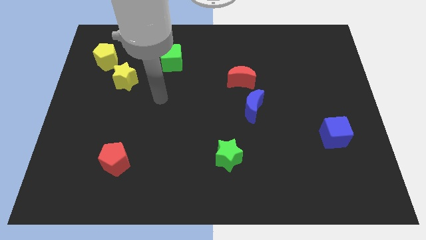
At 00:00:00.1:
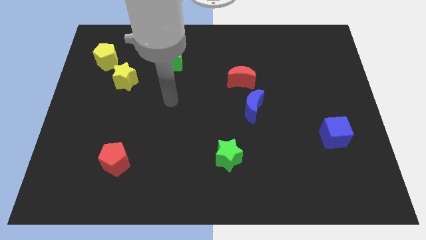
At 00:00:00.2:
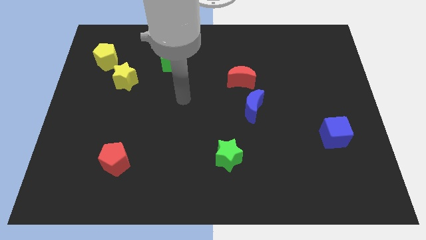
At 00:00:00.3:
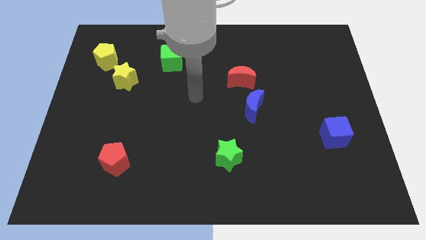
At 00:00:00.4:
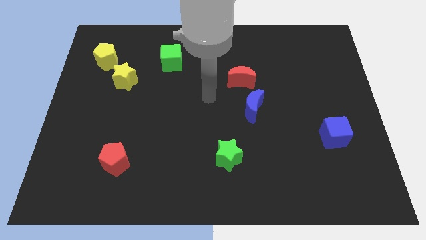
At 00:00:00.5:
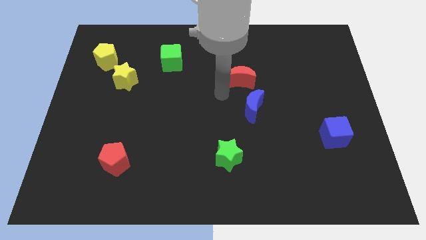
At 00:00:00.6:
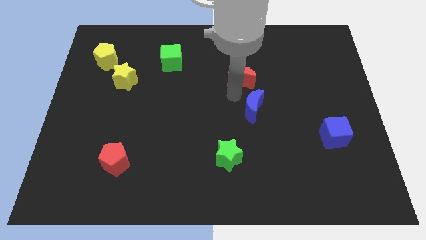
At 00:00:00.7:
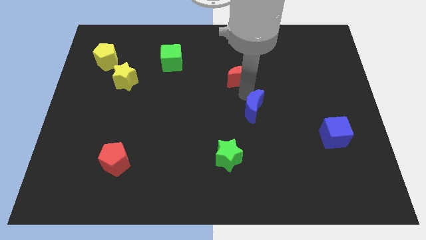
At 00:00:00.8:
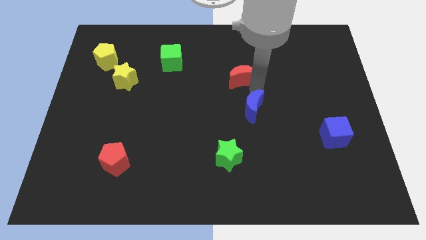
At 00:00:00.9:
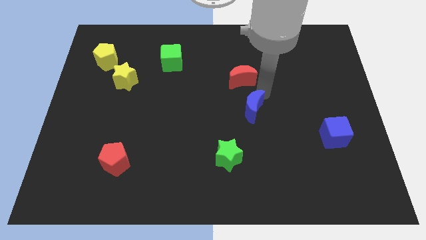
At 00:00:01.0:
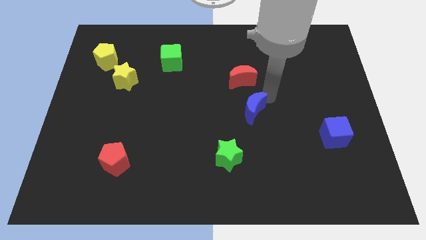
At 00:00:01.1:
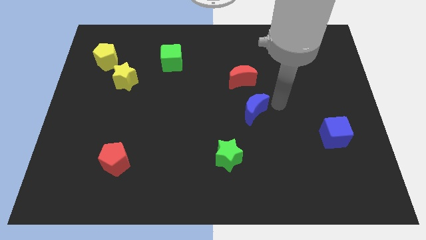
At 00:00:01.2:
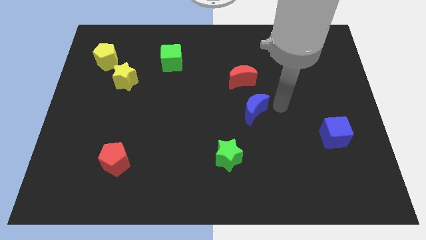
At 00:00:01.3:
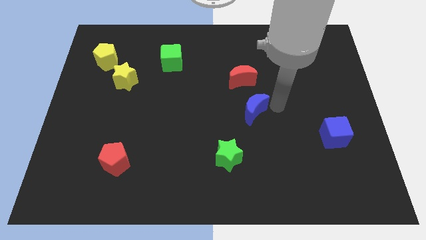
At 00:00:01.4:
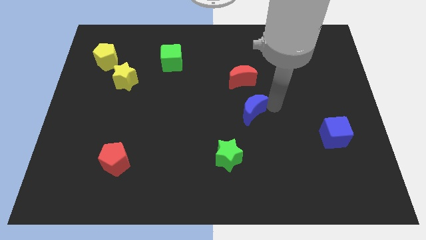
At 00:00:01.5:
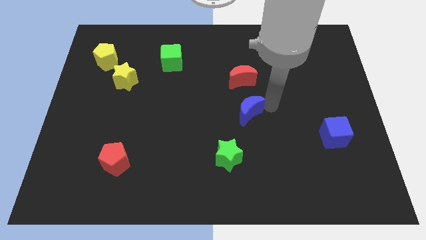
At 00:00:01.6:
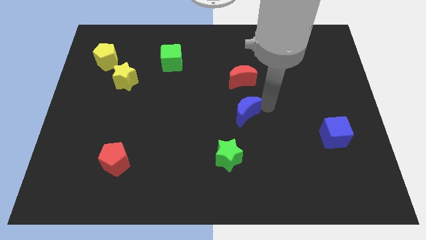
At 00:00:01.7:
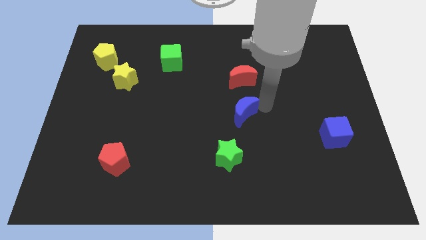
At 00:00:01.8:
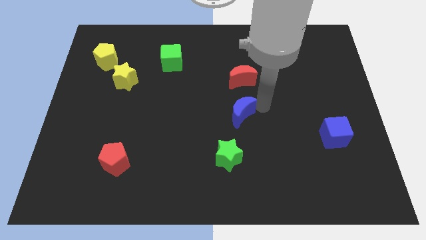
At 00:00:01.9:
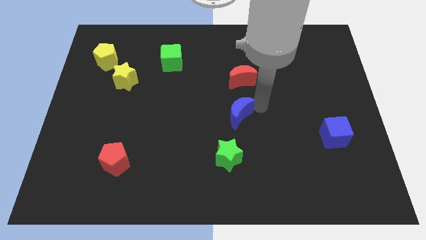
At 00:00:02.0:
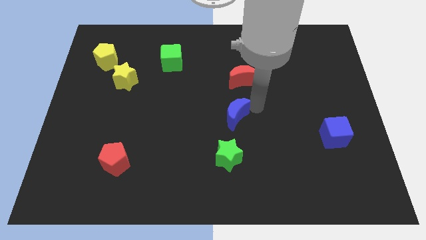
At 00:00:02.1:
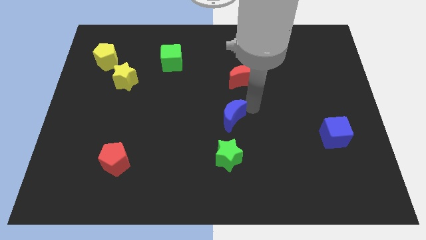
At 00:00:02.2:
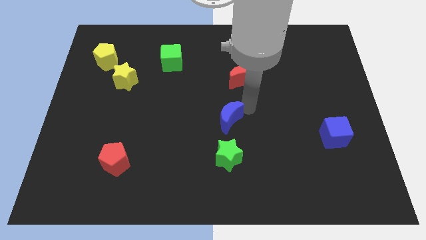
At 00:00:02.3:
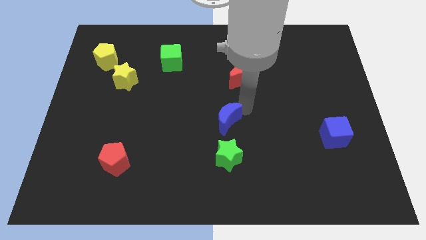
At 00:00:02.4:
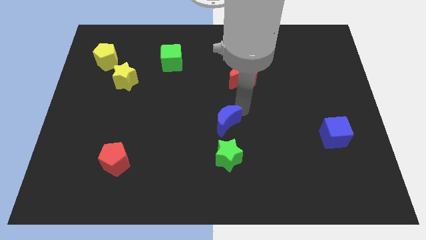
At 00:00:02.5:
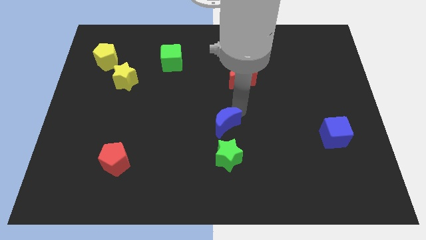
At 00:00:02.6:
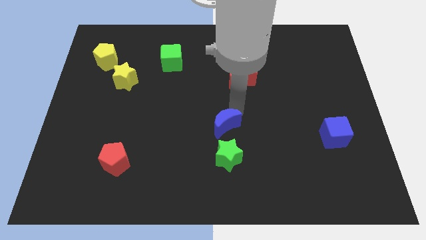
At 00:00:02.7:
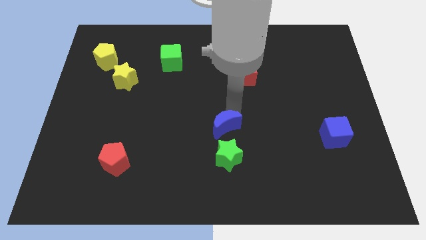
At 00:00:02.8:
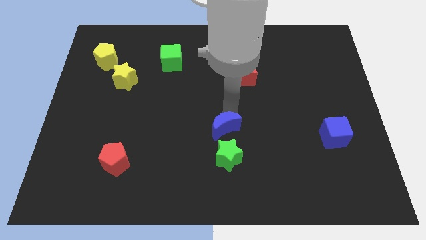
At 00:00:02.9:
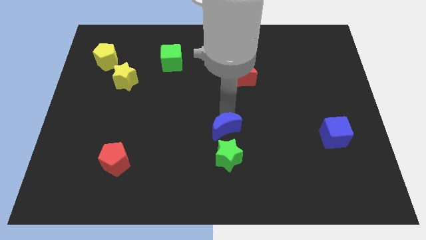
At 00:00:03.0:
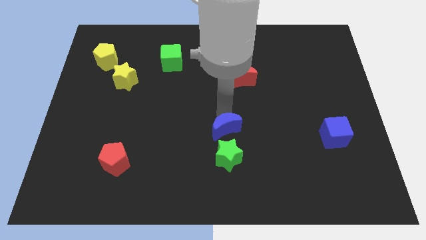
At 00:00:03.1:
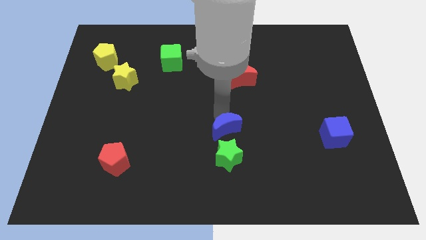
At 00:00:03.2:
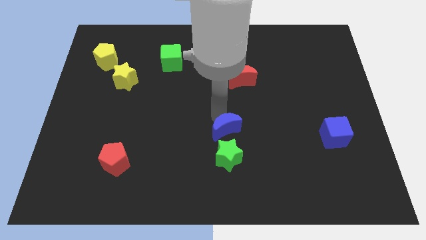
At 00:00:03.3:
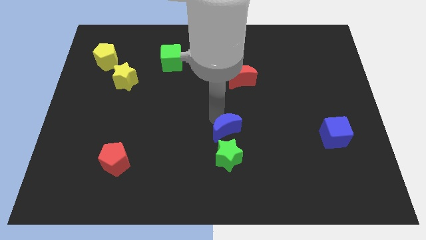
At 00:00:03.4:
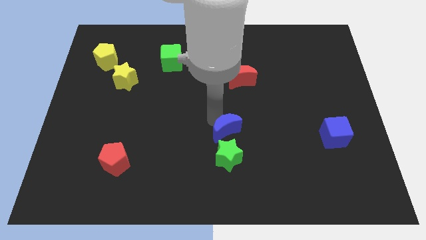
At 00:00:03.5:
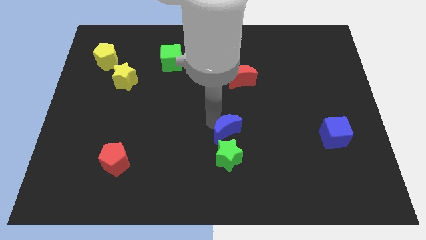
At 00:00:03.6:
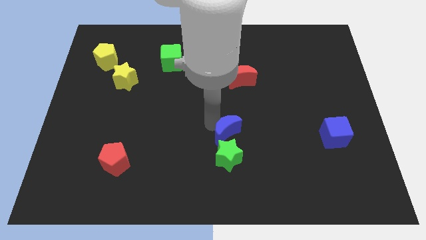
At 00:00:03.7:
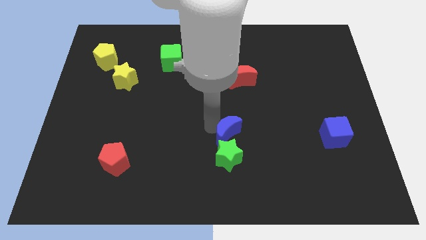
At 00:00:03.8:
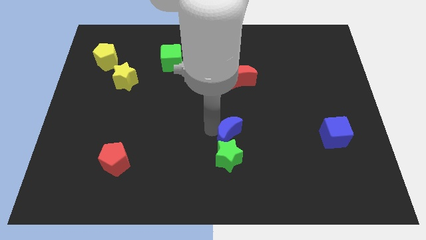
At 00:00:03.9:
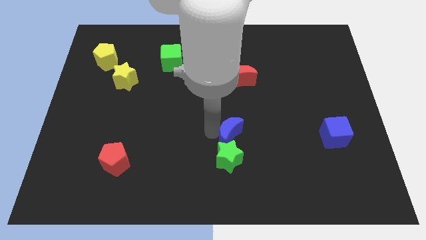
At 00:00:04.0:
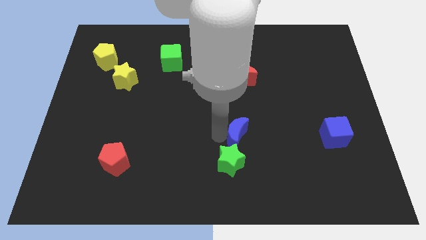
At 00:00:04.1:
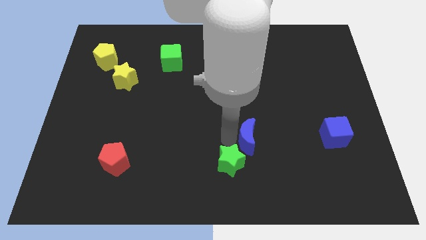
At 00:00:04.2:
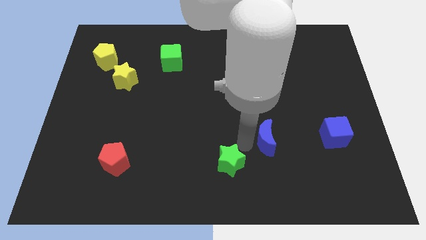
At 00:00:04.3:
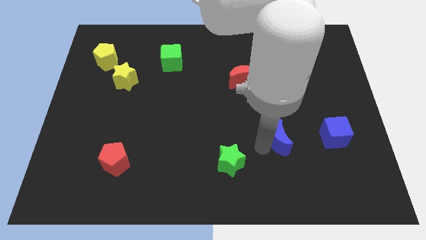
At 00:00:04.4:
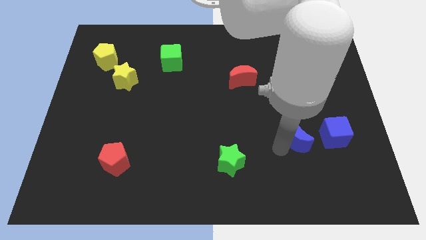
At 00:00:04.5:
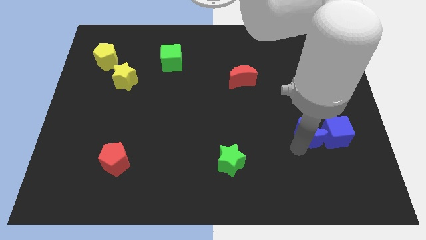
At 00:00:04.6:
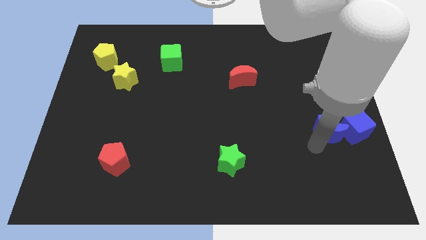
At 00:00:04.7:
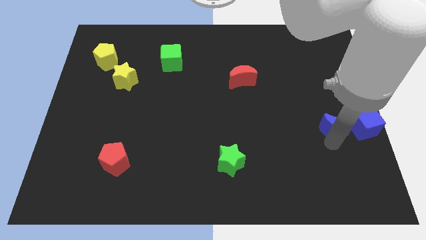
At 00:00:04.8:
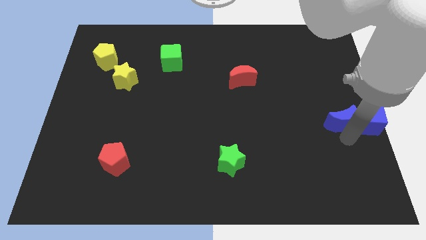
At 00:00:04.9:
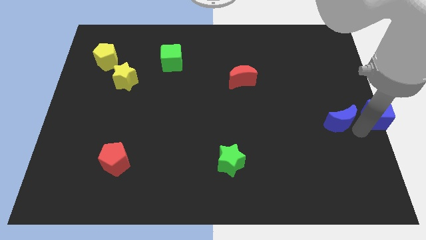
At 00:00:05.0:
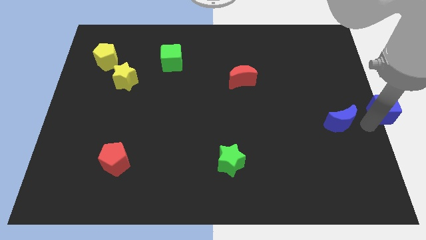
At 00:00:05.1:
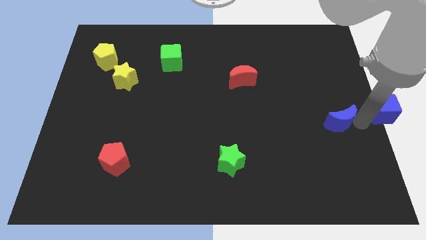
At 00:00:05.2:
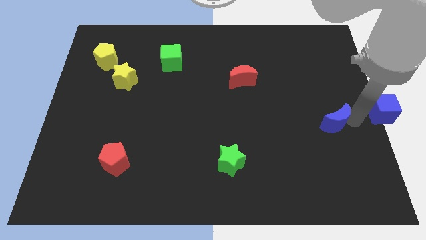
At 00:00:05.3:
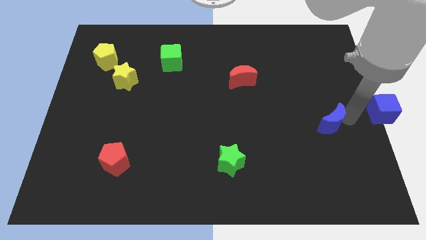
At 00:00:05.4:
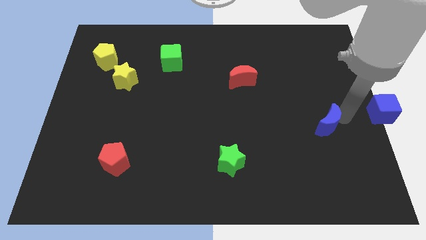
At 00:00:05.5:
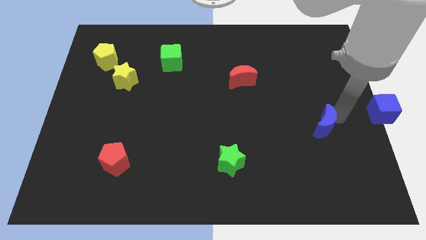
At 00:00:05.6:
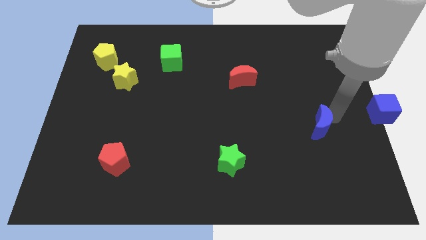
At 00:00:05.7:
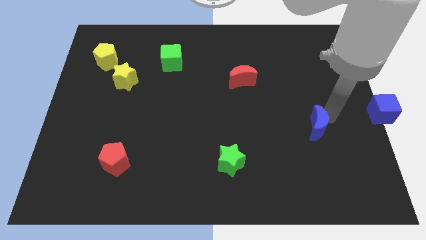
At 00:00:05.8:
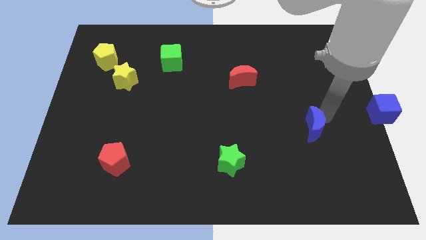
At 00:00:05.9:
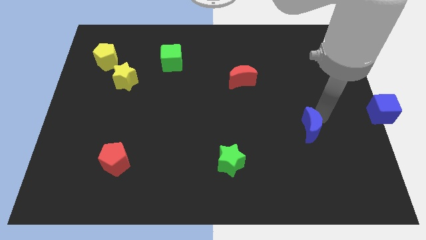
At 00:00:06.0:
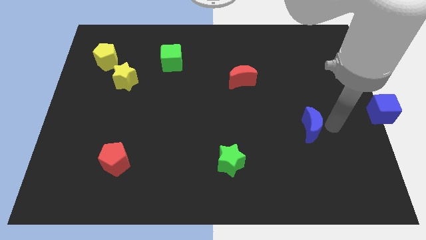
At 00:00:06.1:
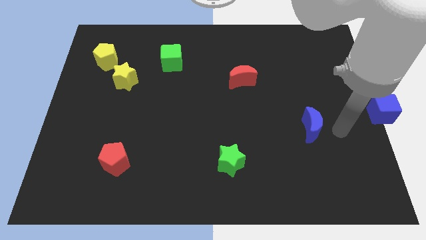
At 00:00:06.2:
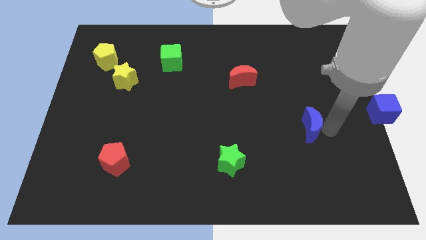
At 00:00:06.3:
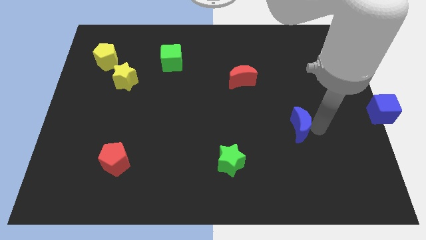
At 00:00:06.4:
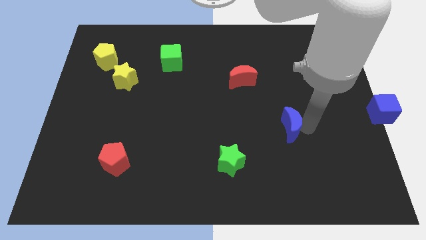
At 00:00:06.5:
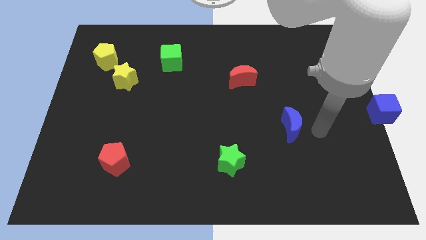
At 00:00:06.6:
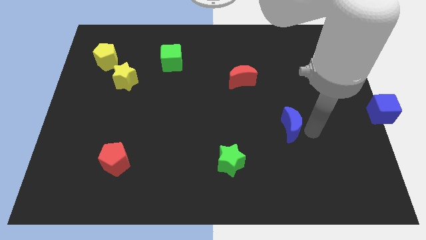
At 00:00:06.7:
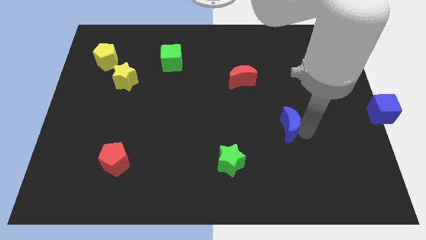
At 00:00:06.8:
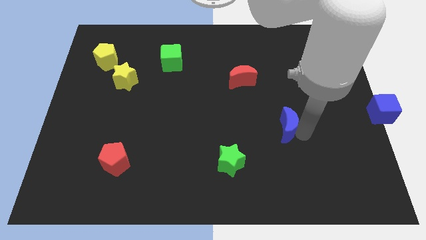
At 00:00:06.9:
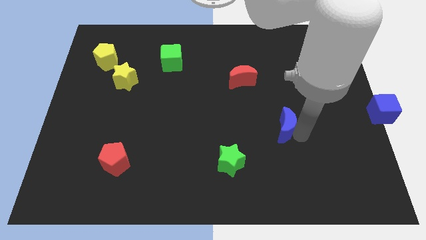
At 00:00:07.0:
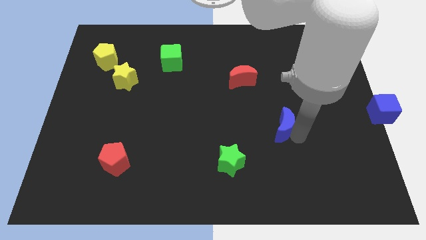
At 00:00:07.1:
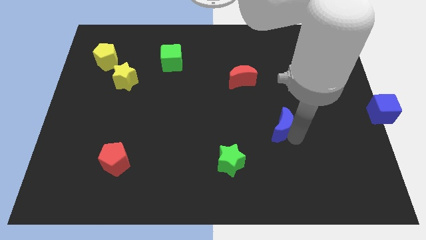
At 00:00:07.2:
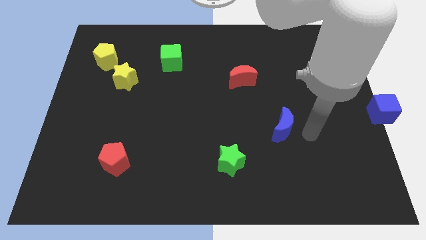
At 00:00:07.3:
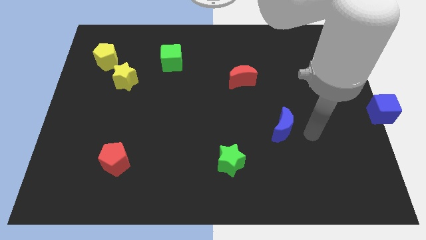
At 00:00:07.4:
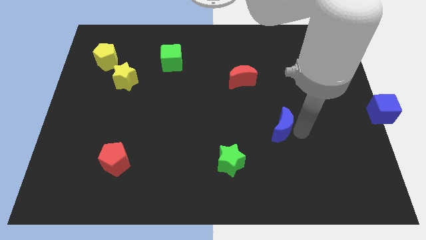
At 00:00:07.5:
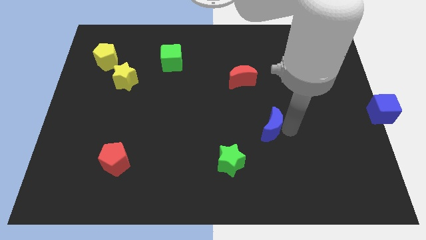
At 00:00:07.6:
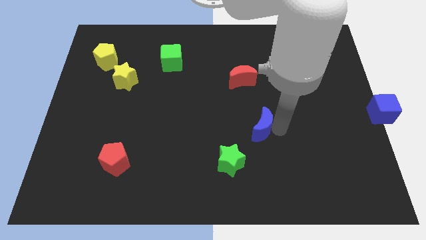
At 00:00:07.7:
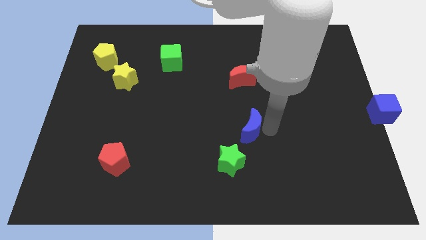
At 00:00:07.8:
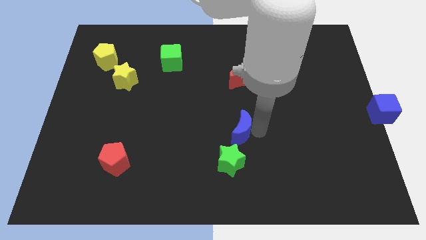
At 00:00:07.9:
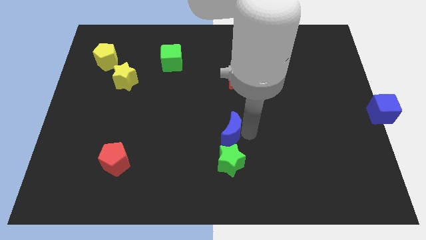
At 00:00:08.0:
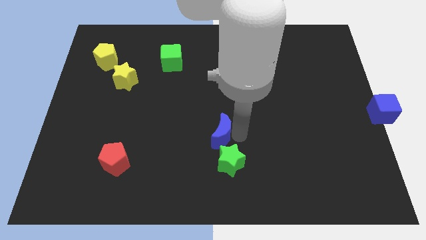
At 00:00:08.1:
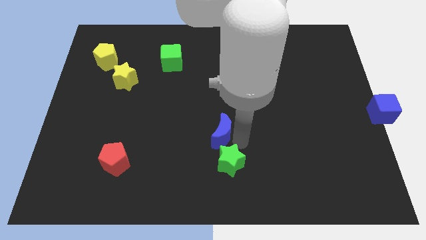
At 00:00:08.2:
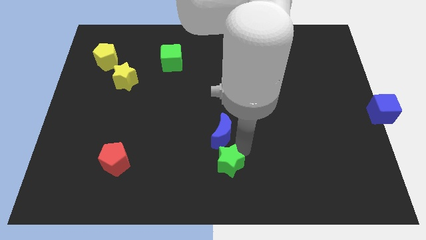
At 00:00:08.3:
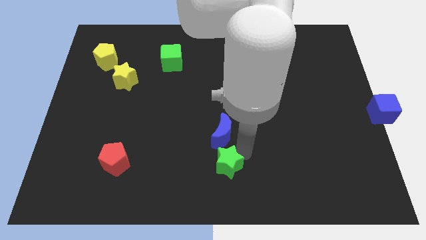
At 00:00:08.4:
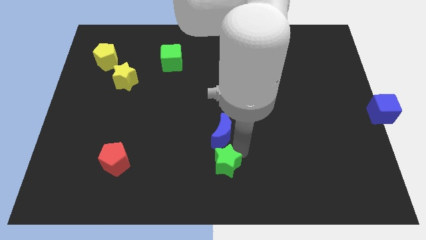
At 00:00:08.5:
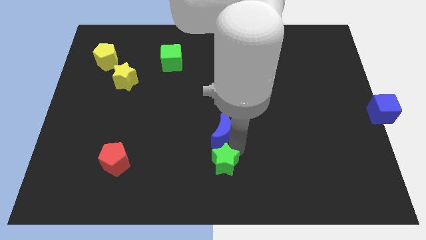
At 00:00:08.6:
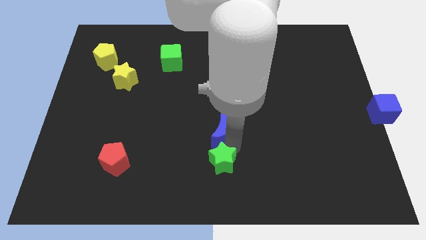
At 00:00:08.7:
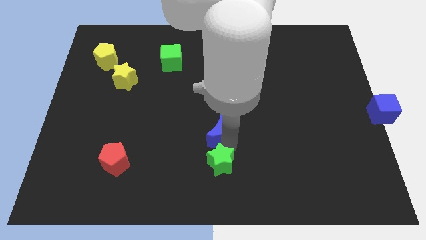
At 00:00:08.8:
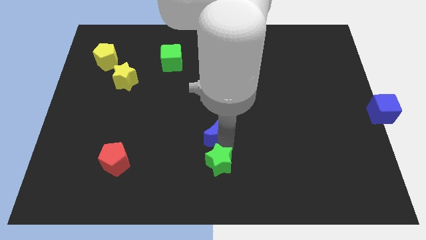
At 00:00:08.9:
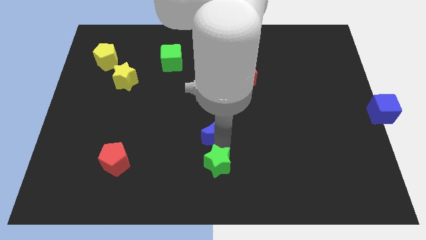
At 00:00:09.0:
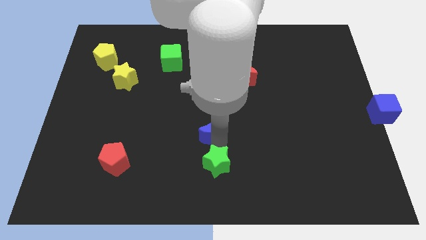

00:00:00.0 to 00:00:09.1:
slightly move the blue moon to the left
